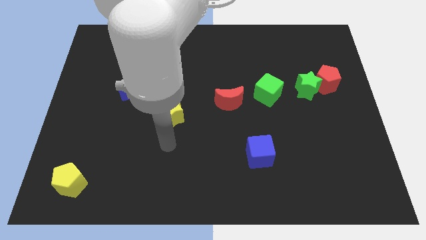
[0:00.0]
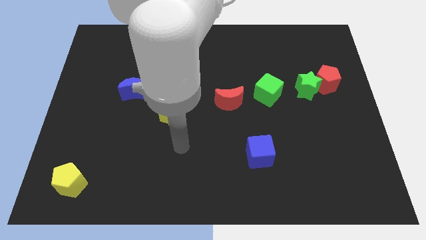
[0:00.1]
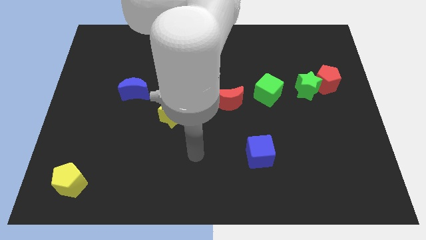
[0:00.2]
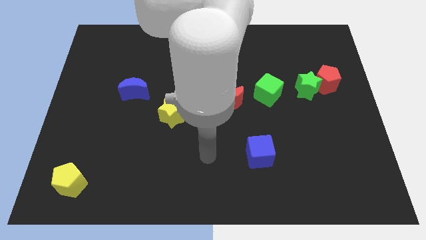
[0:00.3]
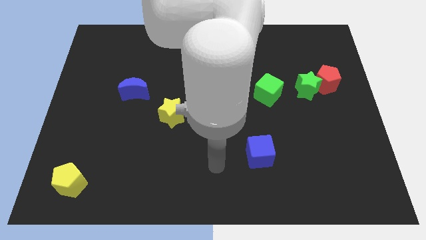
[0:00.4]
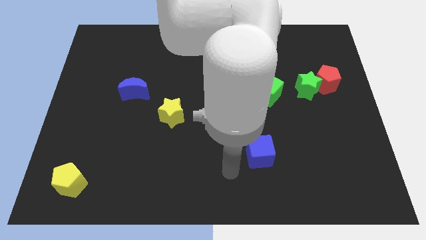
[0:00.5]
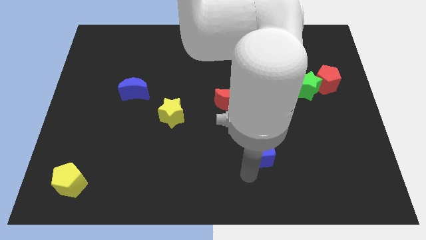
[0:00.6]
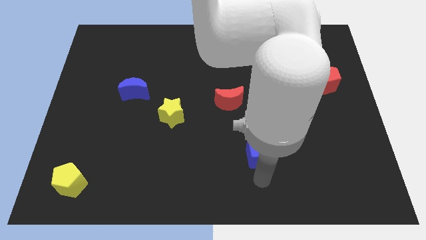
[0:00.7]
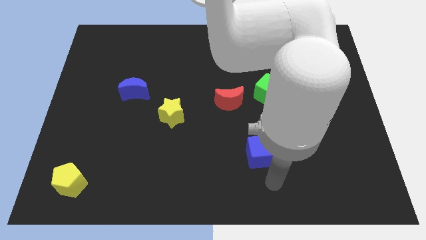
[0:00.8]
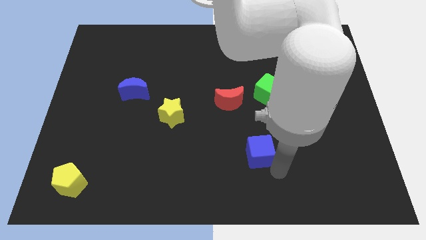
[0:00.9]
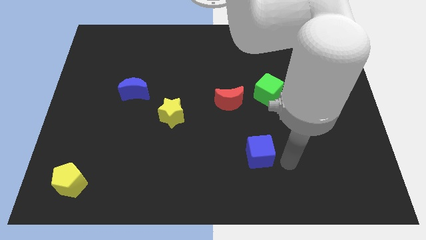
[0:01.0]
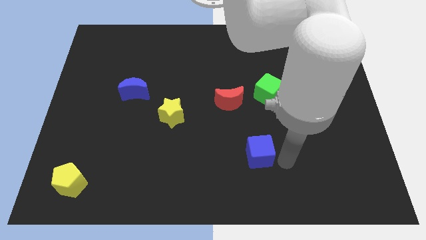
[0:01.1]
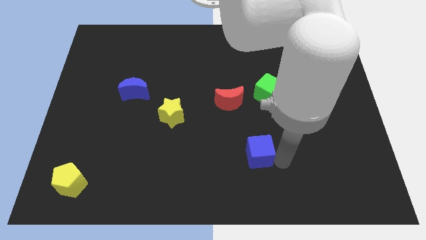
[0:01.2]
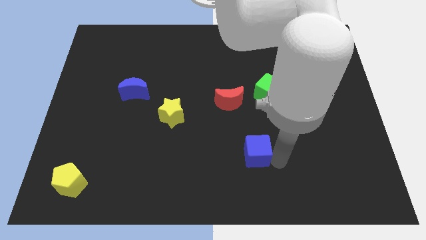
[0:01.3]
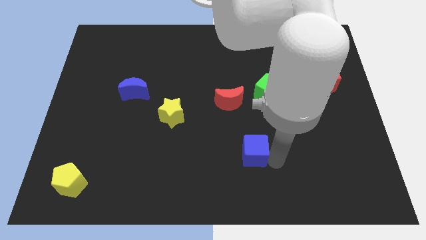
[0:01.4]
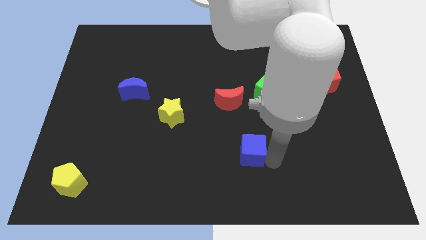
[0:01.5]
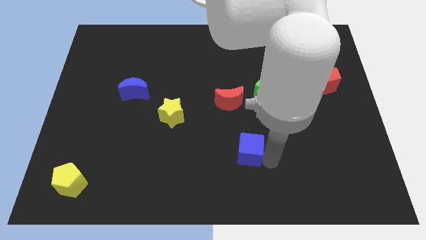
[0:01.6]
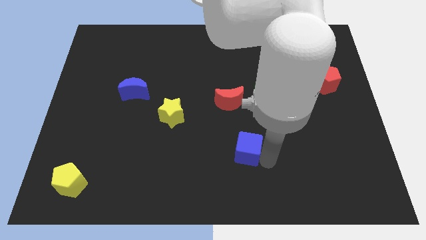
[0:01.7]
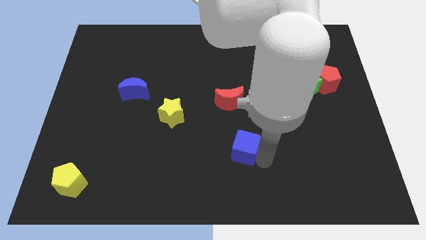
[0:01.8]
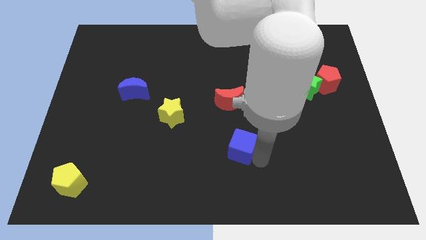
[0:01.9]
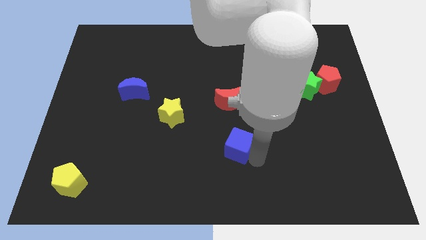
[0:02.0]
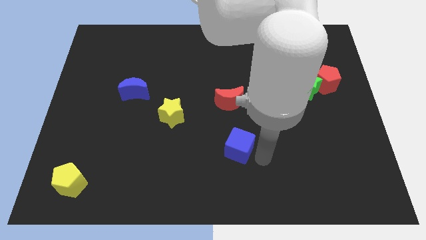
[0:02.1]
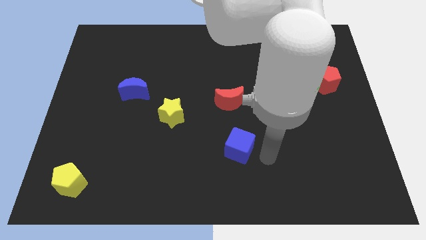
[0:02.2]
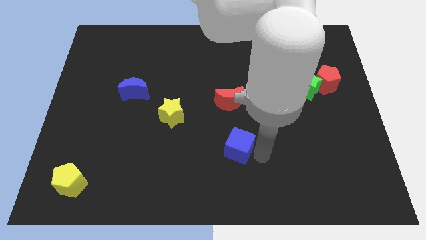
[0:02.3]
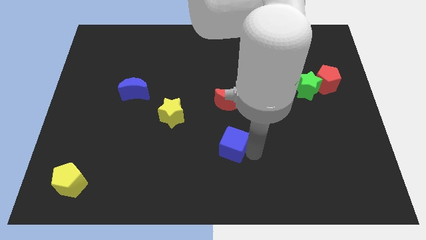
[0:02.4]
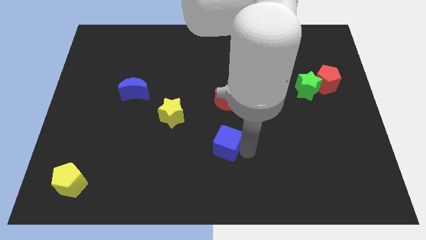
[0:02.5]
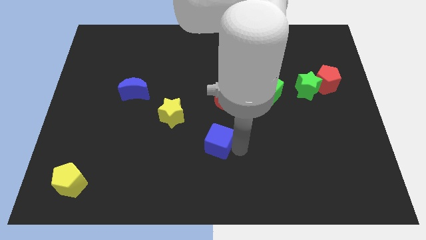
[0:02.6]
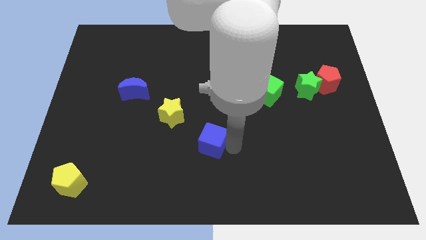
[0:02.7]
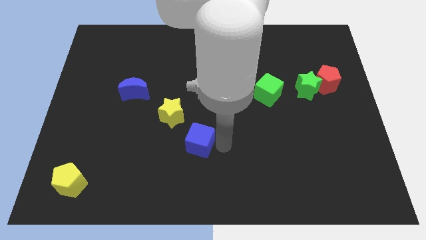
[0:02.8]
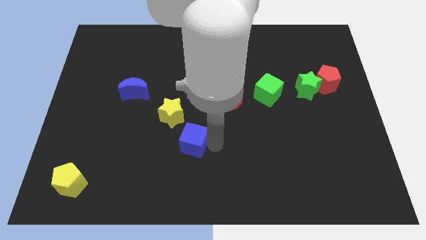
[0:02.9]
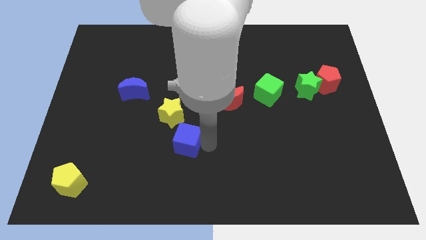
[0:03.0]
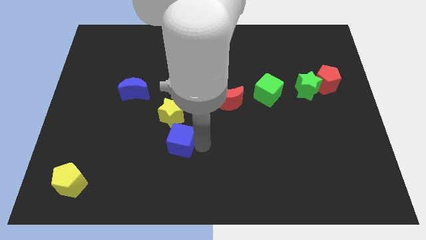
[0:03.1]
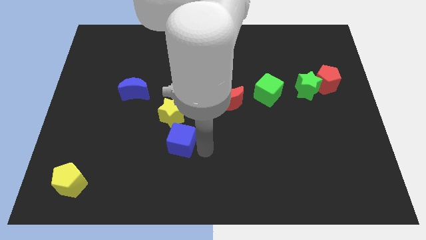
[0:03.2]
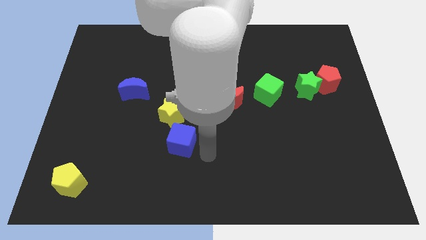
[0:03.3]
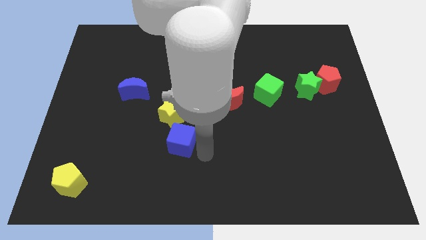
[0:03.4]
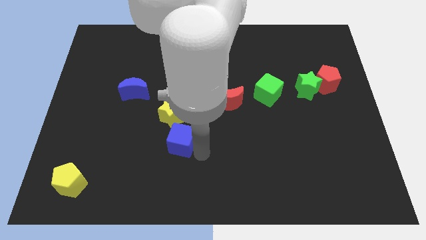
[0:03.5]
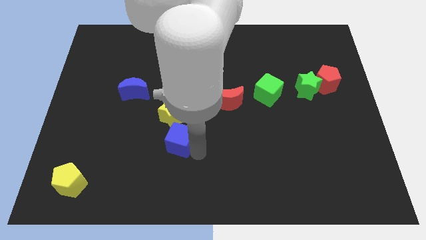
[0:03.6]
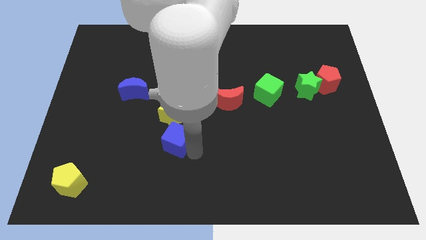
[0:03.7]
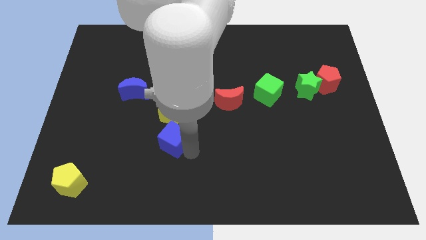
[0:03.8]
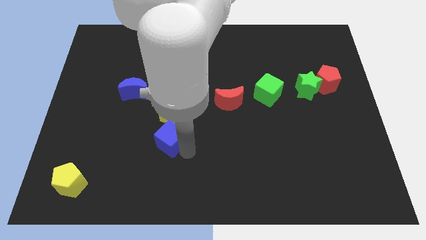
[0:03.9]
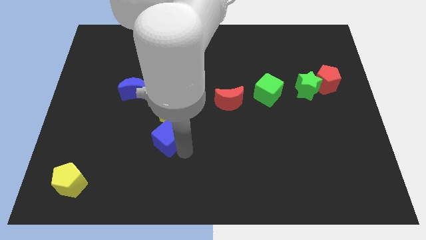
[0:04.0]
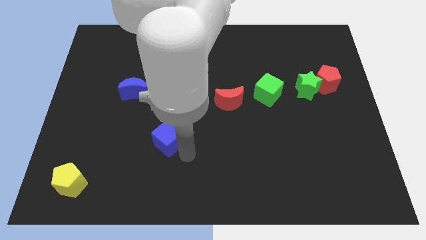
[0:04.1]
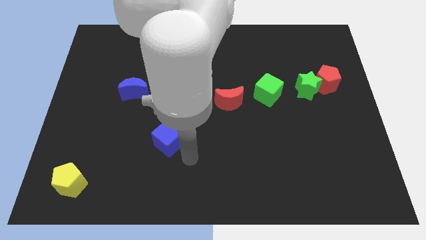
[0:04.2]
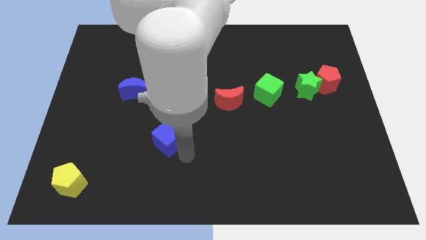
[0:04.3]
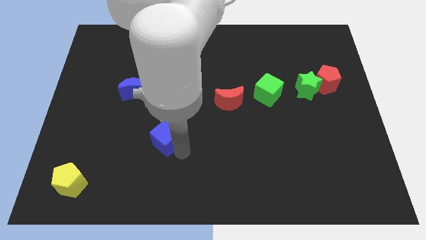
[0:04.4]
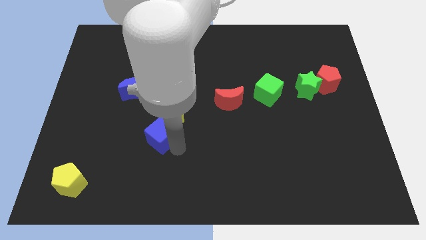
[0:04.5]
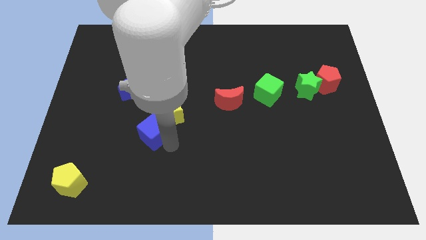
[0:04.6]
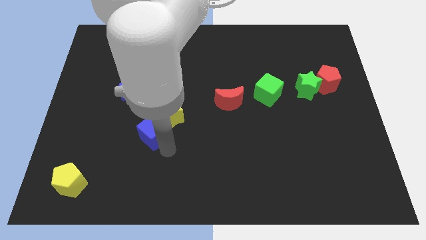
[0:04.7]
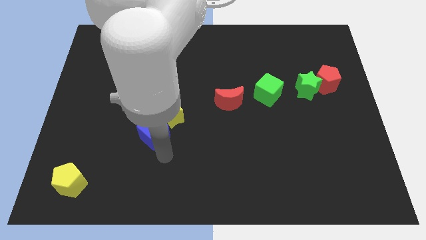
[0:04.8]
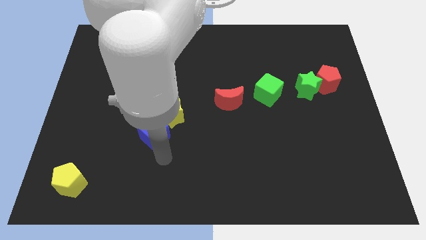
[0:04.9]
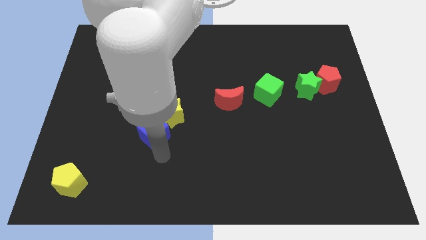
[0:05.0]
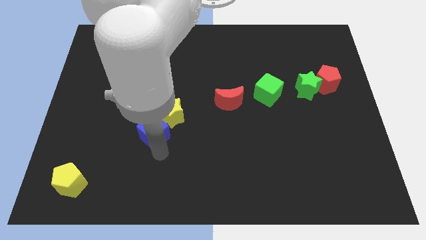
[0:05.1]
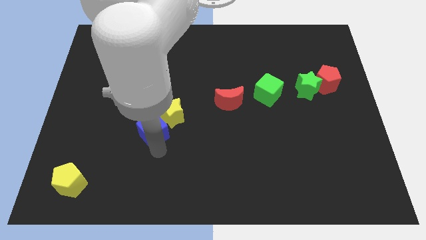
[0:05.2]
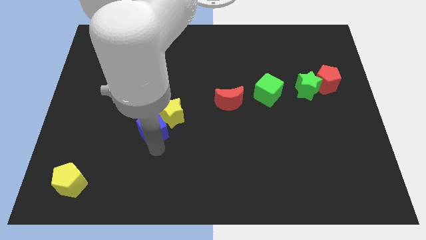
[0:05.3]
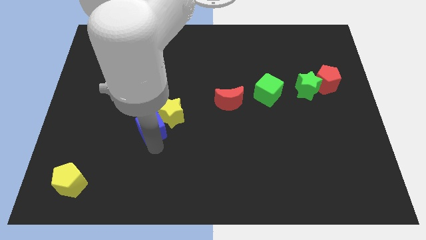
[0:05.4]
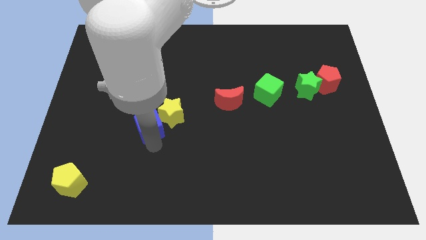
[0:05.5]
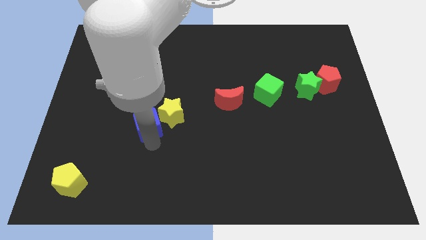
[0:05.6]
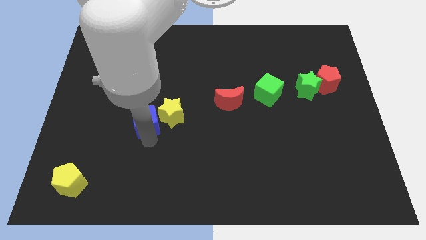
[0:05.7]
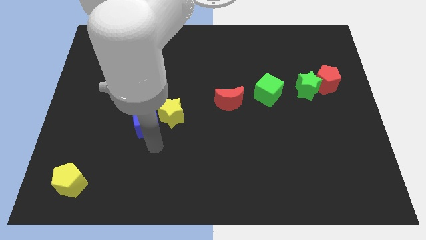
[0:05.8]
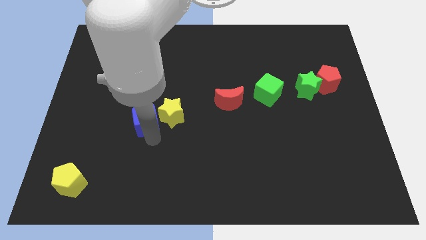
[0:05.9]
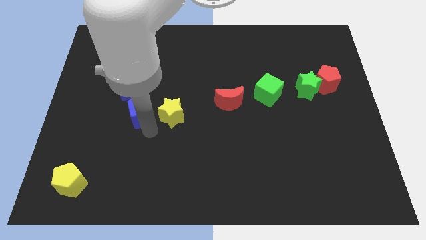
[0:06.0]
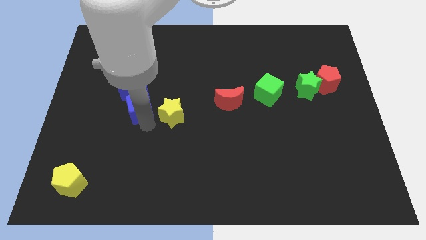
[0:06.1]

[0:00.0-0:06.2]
slide the blue cube close to the blue moon

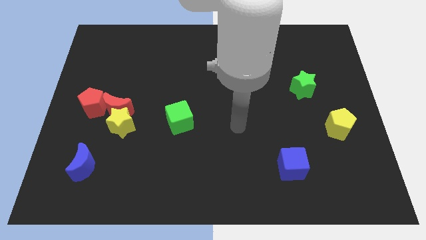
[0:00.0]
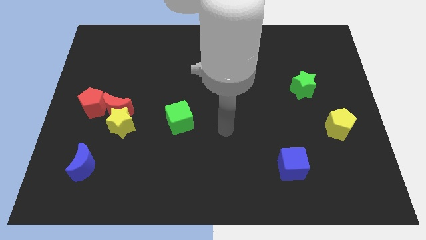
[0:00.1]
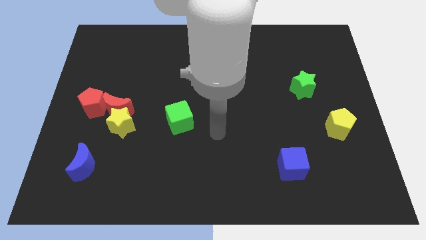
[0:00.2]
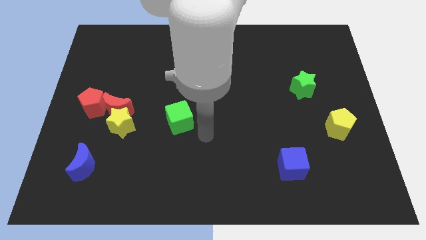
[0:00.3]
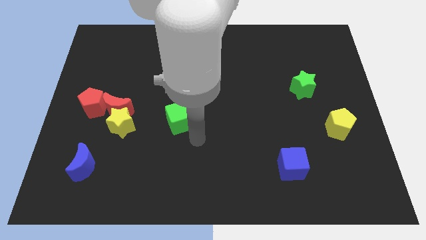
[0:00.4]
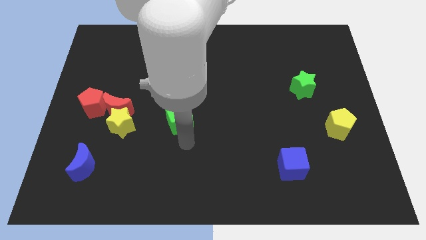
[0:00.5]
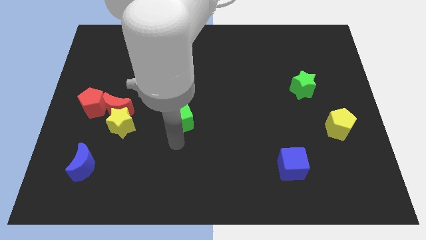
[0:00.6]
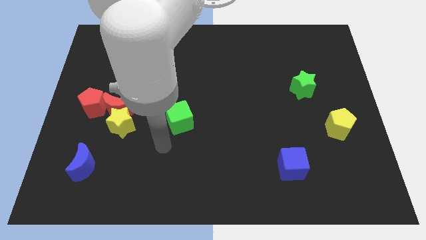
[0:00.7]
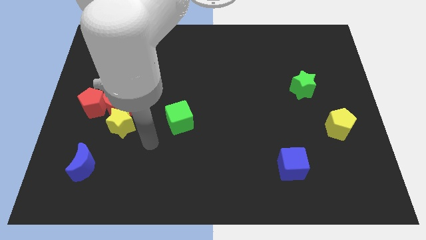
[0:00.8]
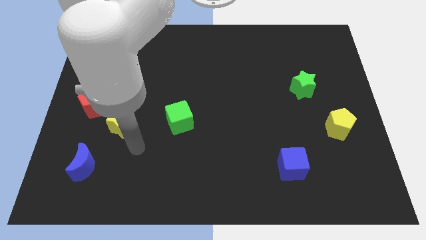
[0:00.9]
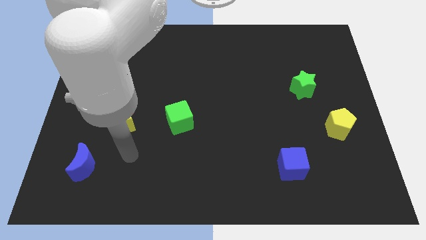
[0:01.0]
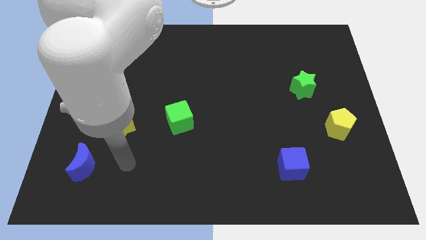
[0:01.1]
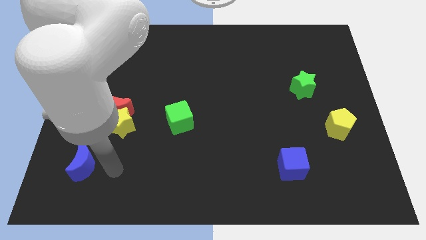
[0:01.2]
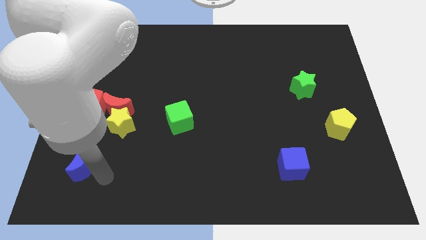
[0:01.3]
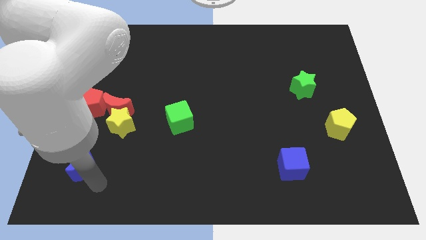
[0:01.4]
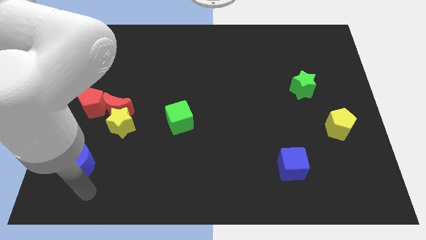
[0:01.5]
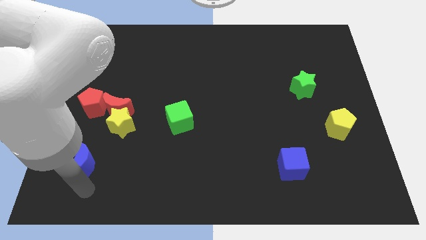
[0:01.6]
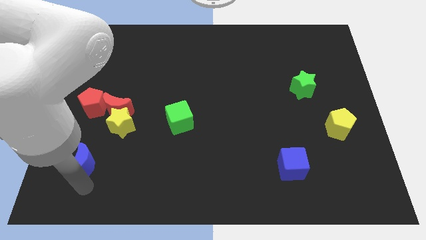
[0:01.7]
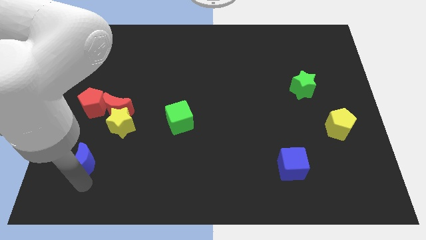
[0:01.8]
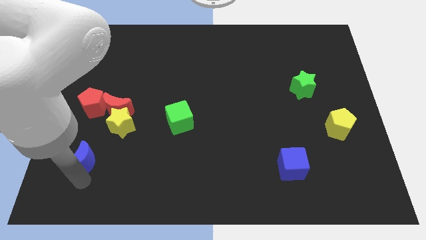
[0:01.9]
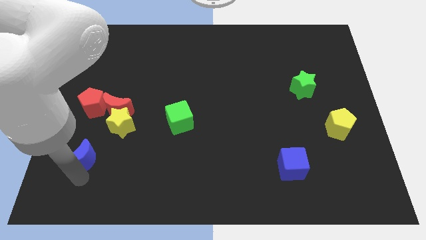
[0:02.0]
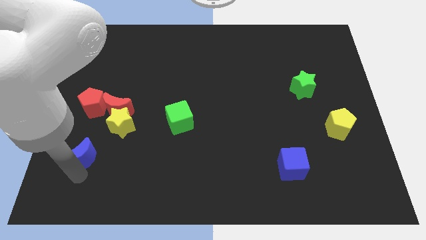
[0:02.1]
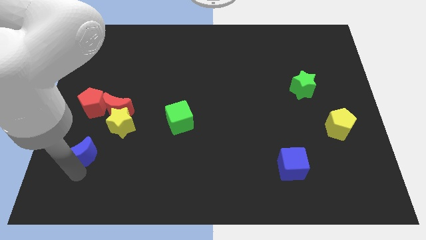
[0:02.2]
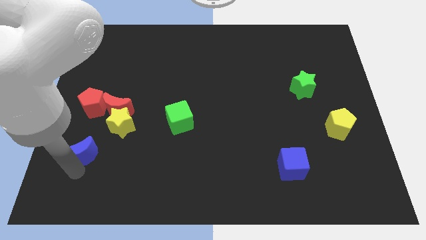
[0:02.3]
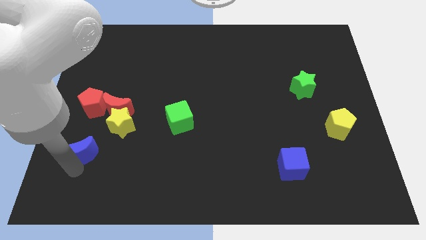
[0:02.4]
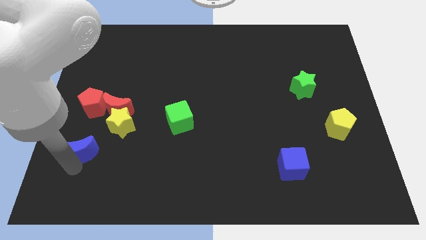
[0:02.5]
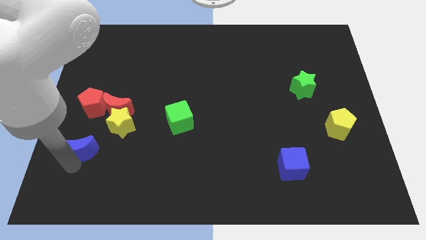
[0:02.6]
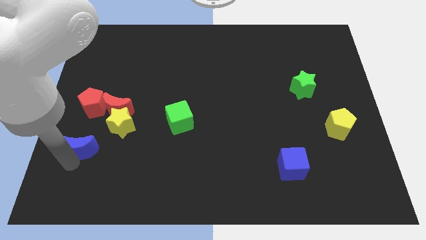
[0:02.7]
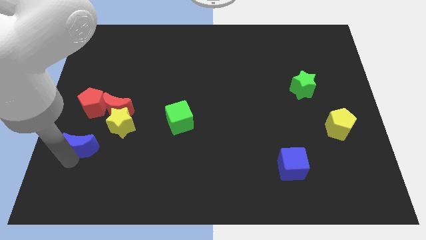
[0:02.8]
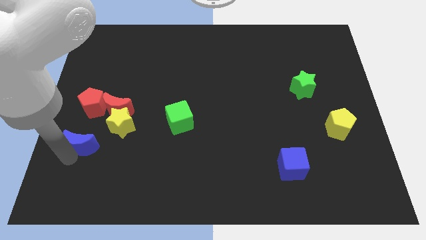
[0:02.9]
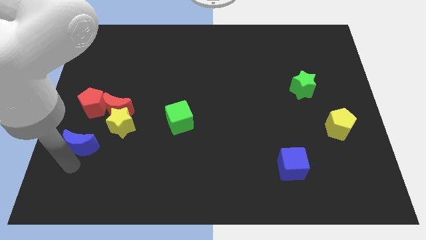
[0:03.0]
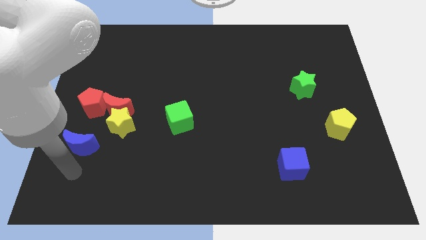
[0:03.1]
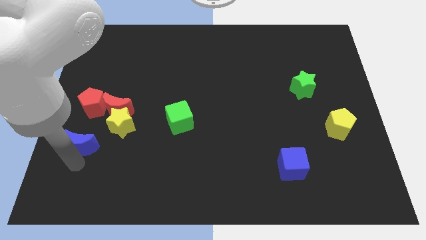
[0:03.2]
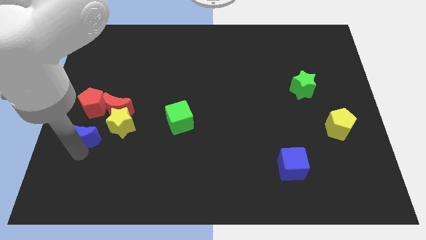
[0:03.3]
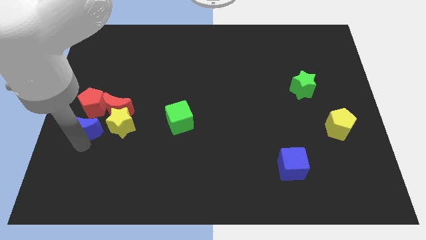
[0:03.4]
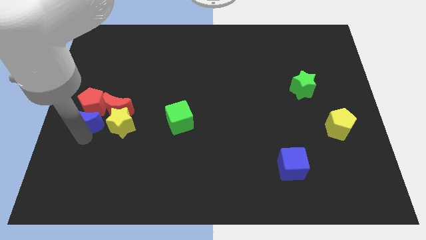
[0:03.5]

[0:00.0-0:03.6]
push the blue moon close to the red pentagon
